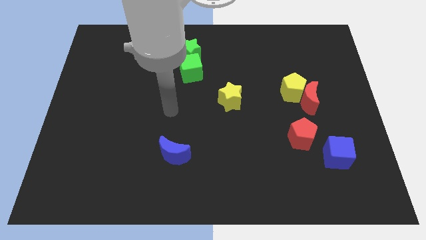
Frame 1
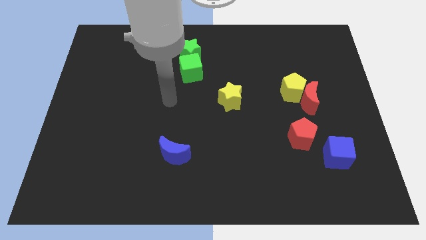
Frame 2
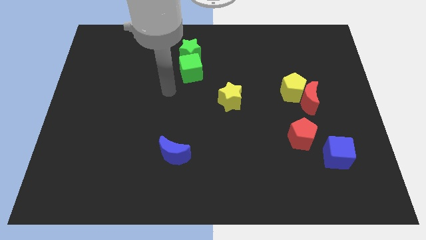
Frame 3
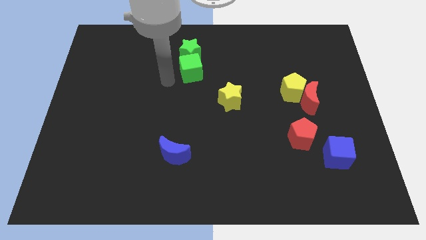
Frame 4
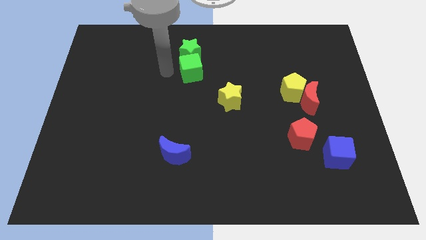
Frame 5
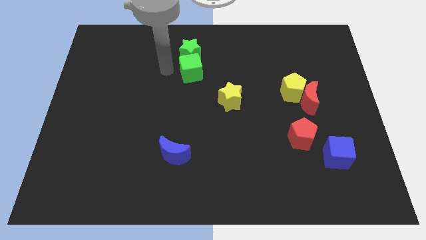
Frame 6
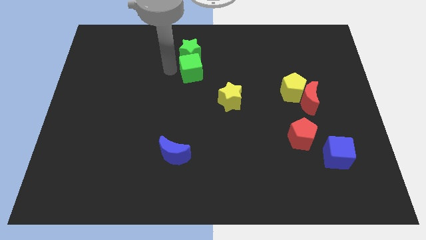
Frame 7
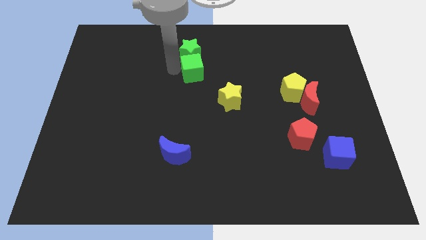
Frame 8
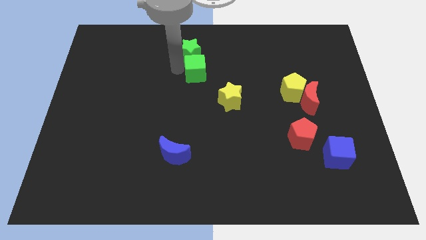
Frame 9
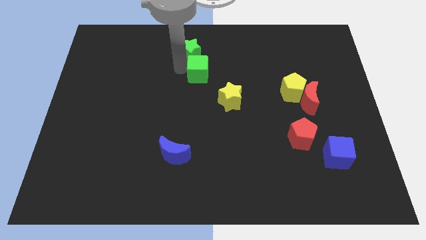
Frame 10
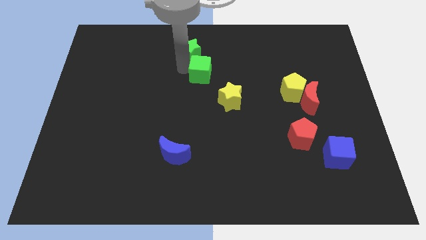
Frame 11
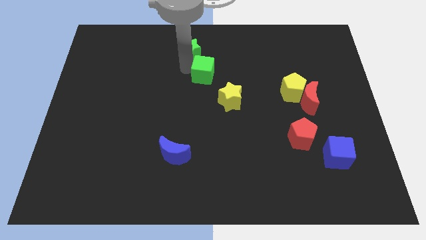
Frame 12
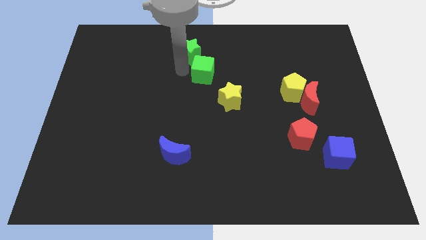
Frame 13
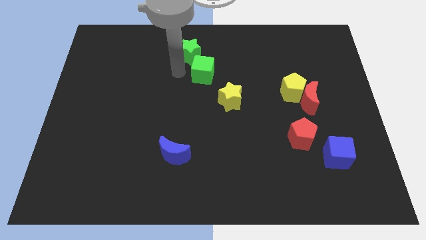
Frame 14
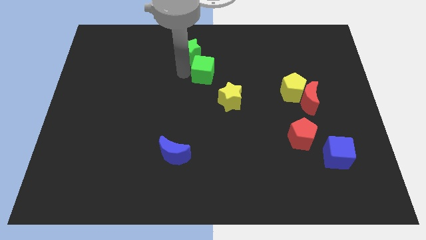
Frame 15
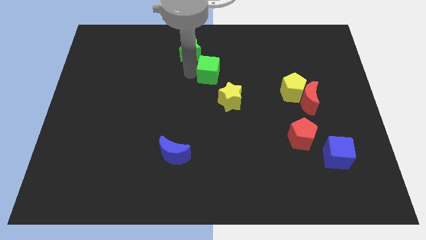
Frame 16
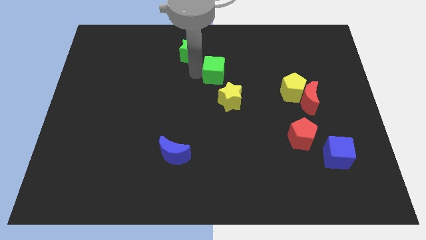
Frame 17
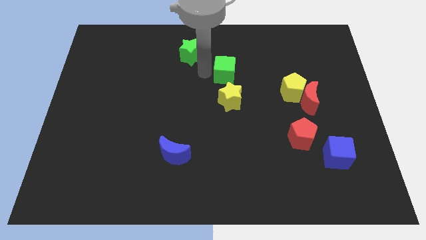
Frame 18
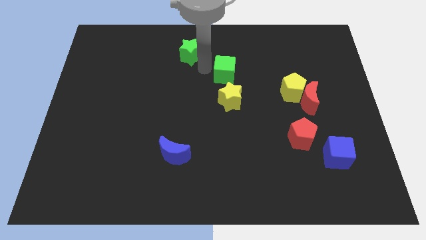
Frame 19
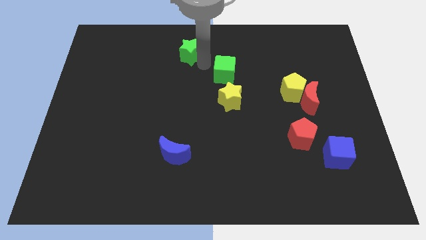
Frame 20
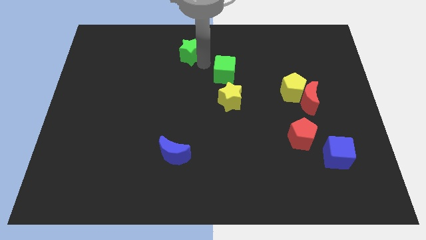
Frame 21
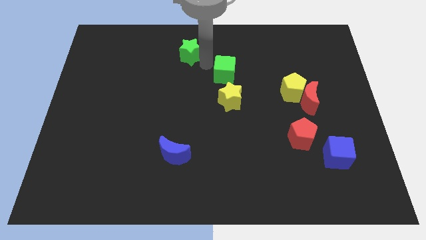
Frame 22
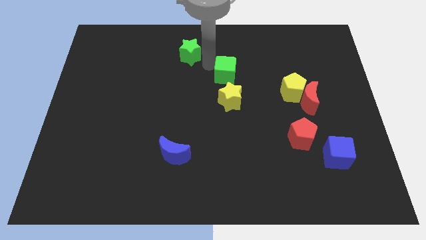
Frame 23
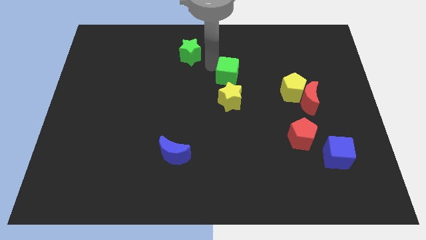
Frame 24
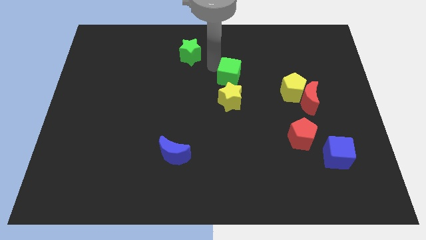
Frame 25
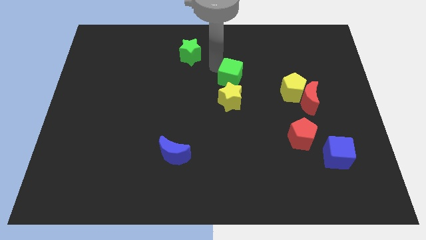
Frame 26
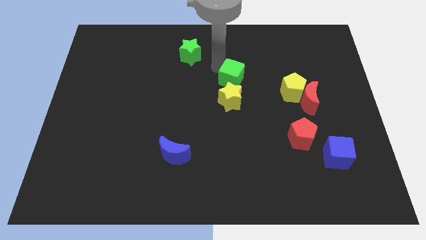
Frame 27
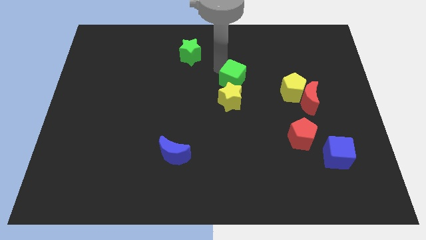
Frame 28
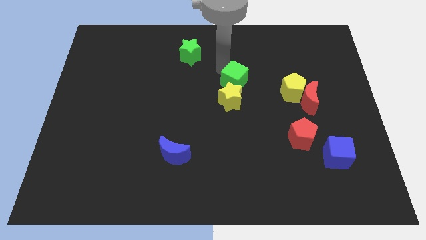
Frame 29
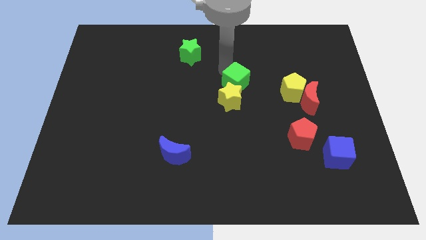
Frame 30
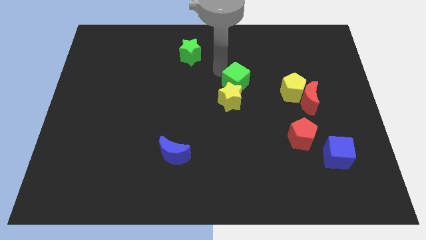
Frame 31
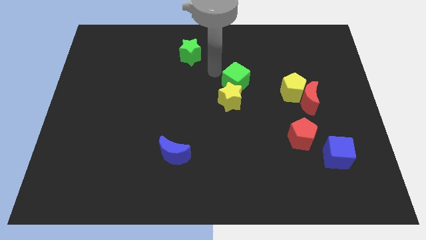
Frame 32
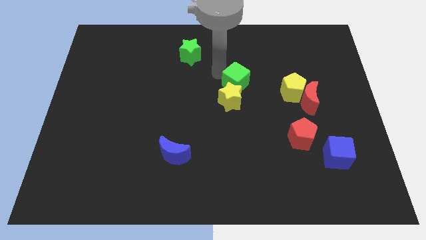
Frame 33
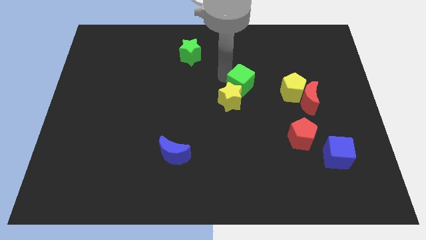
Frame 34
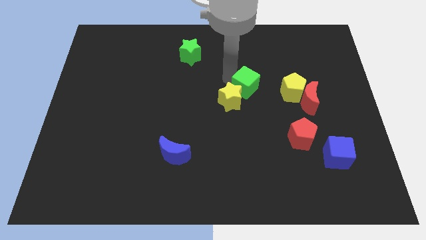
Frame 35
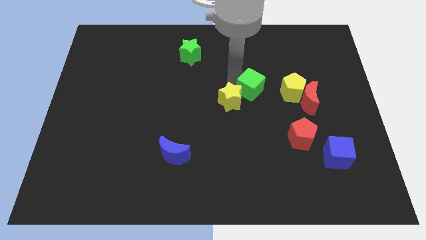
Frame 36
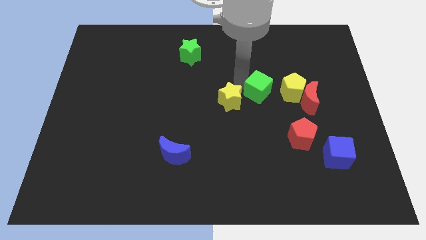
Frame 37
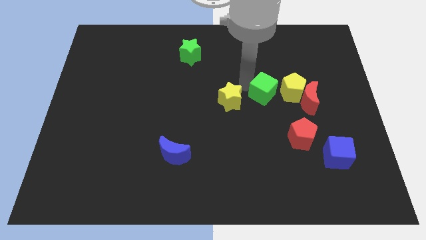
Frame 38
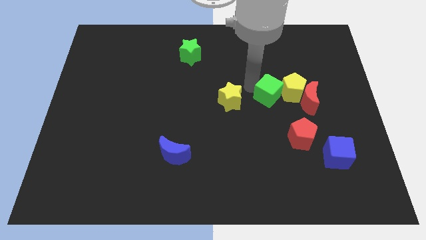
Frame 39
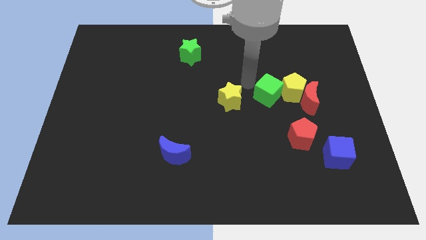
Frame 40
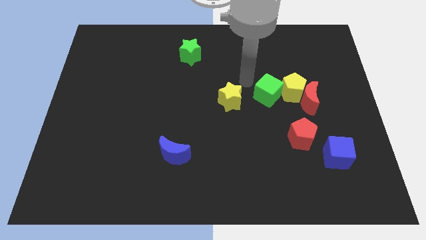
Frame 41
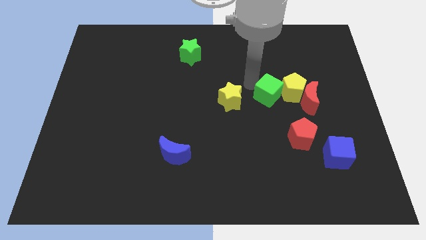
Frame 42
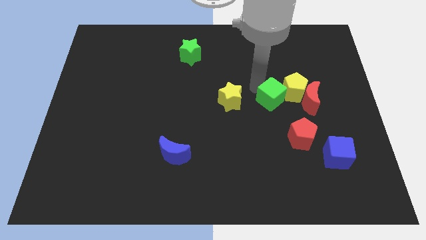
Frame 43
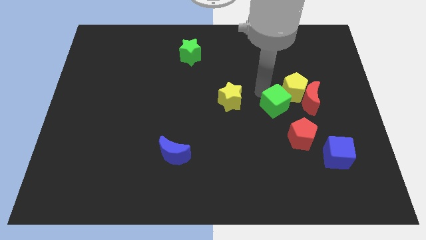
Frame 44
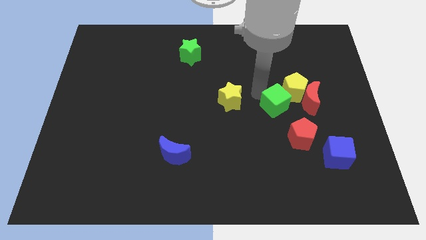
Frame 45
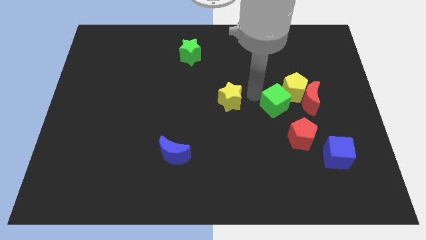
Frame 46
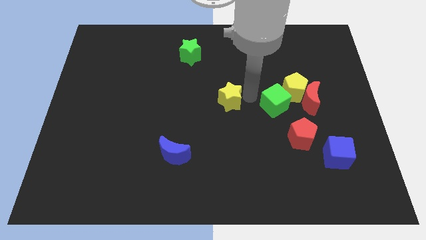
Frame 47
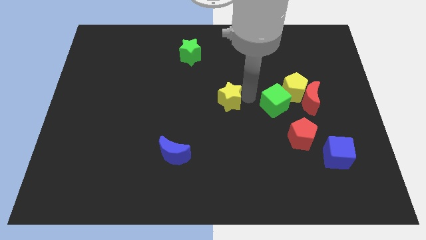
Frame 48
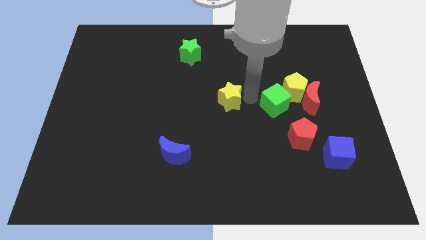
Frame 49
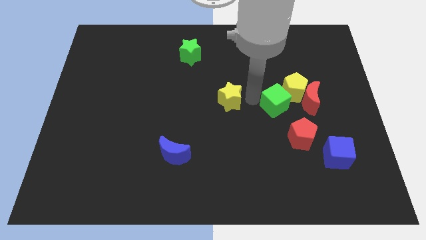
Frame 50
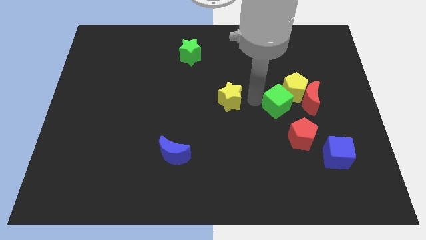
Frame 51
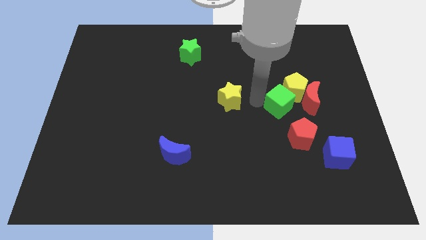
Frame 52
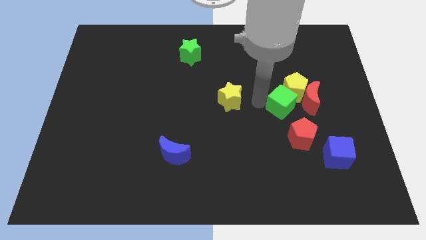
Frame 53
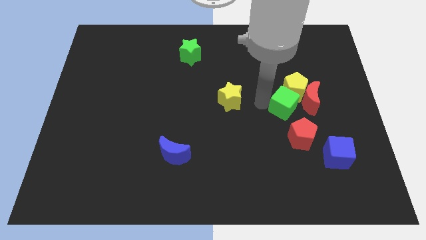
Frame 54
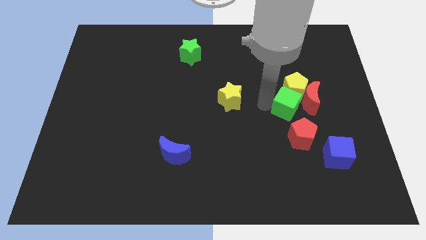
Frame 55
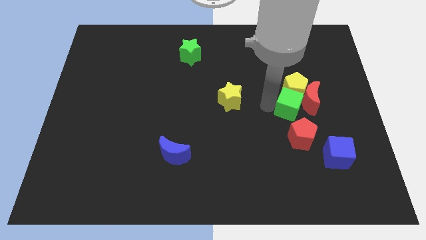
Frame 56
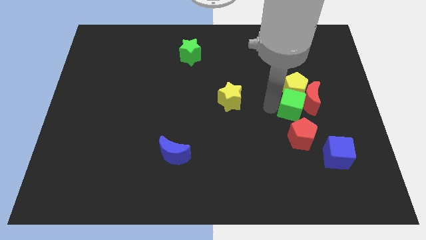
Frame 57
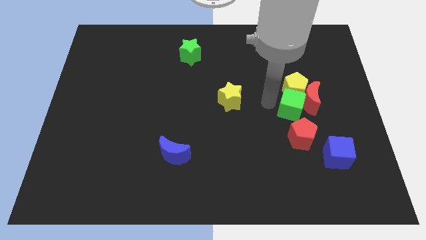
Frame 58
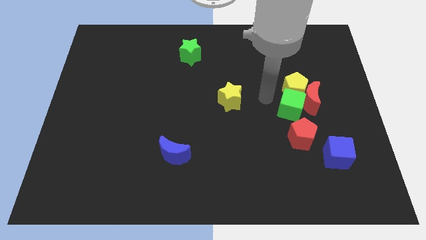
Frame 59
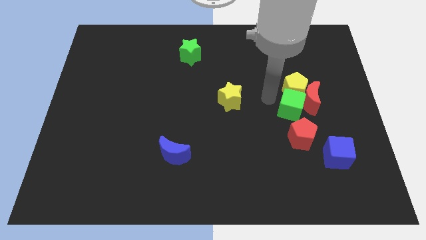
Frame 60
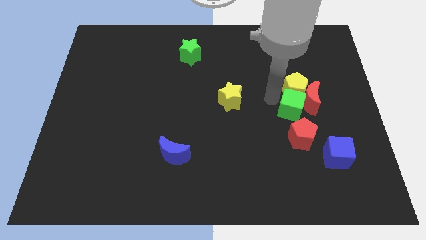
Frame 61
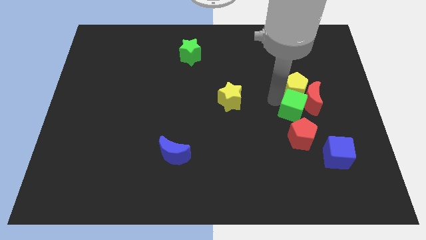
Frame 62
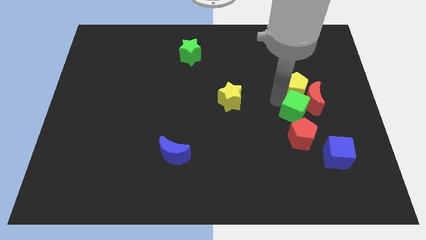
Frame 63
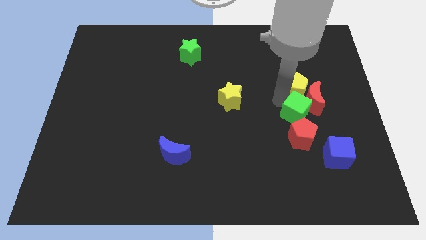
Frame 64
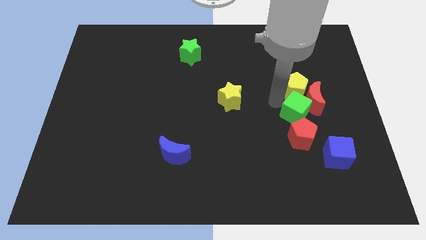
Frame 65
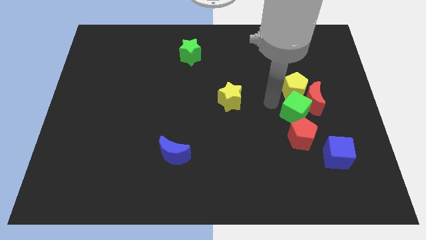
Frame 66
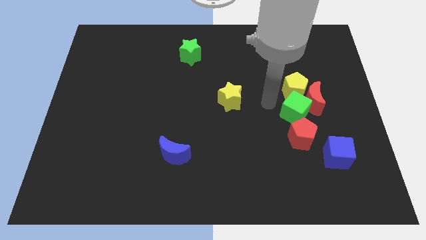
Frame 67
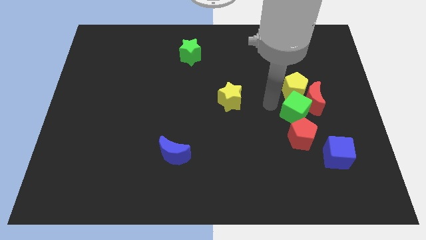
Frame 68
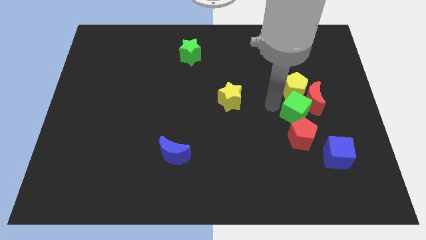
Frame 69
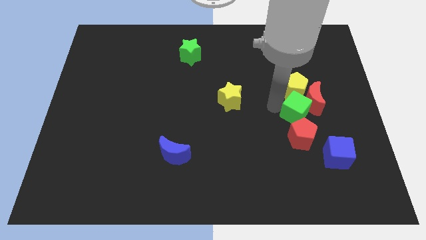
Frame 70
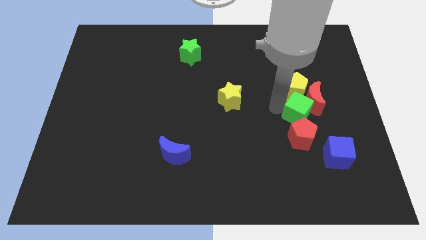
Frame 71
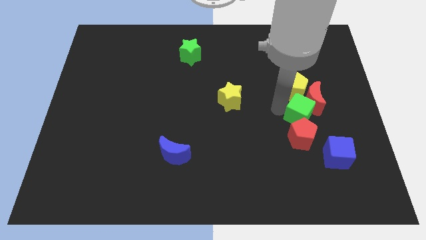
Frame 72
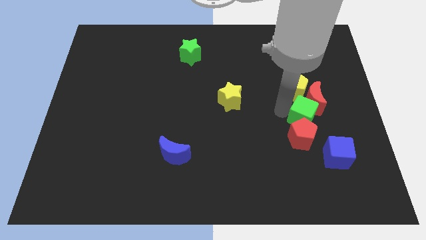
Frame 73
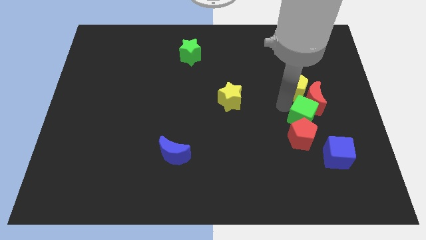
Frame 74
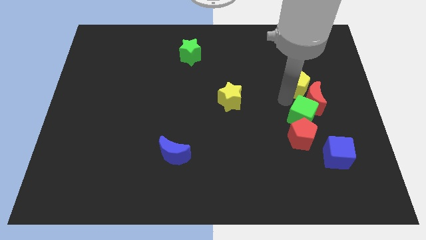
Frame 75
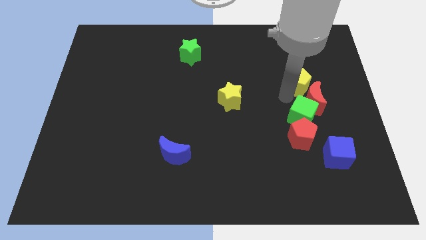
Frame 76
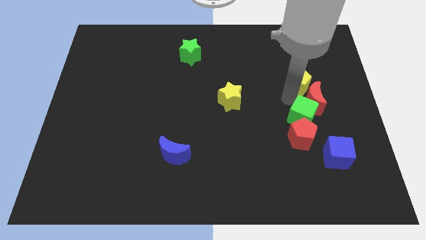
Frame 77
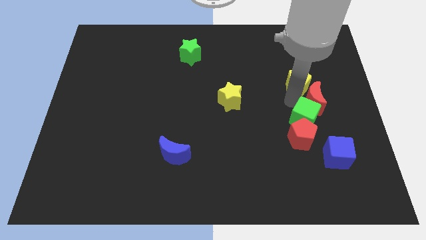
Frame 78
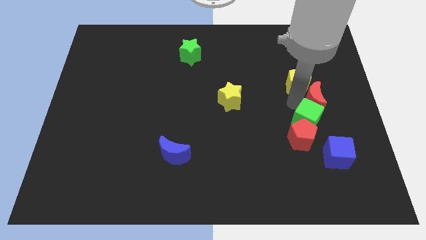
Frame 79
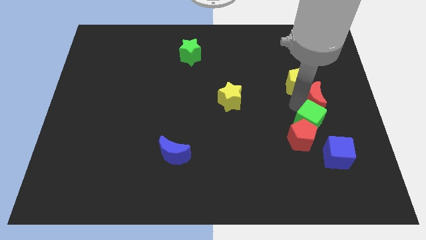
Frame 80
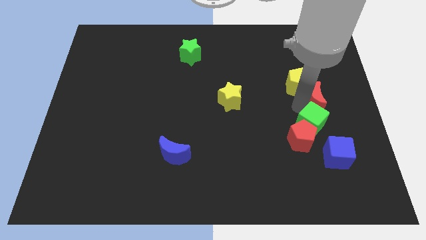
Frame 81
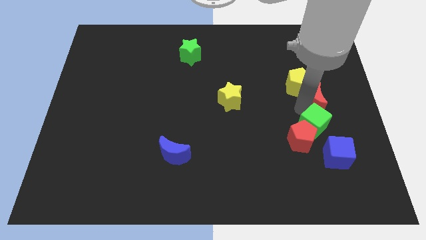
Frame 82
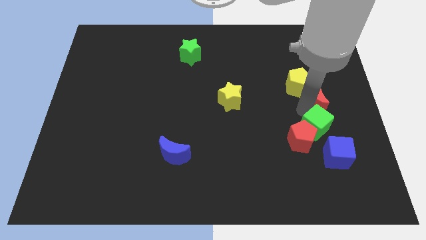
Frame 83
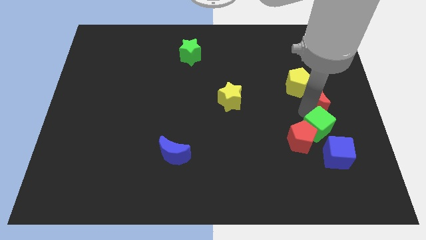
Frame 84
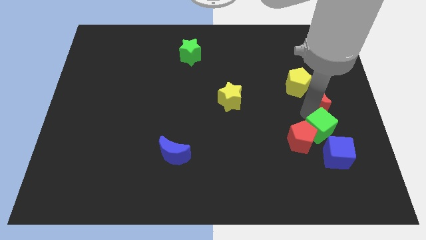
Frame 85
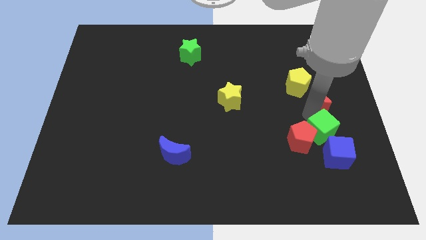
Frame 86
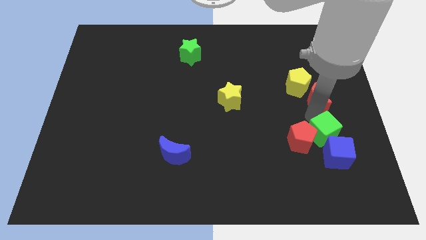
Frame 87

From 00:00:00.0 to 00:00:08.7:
push the green cube towards the blue cube
